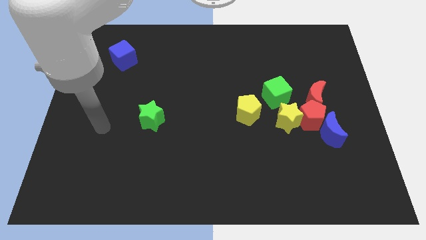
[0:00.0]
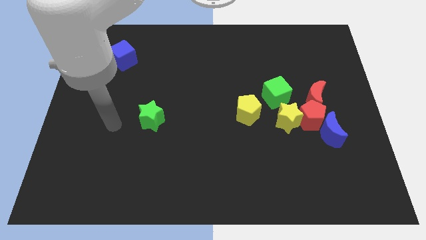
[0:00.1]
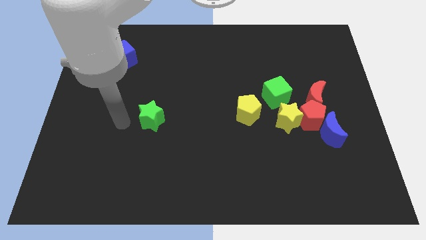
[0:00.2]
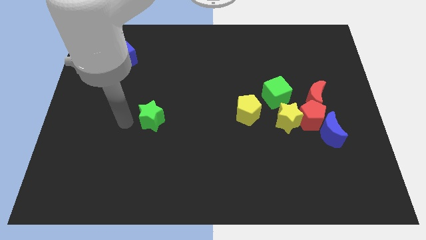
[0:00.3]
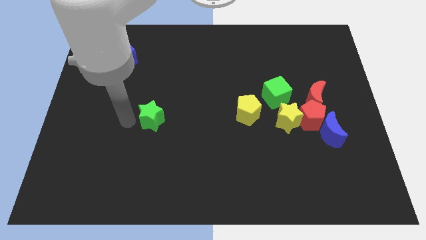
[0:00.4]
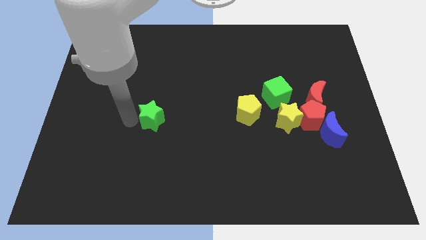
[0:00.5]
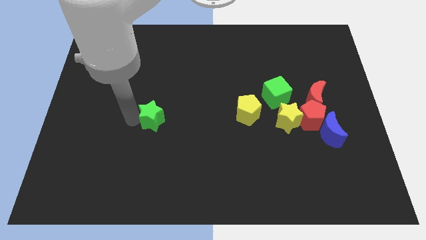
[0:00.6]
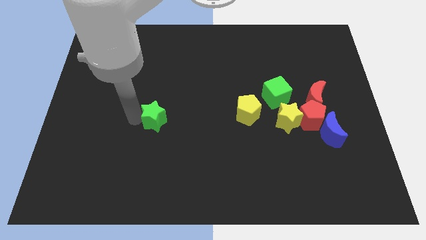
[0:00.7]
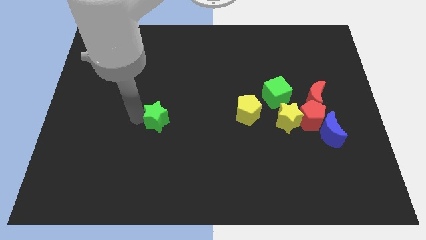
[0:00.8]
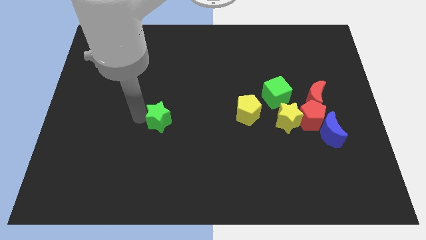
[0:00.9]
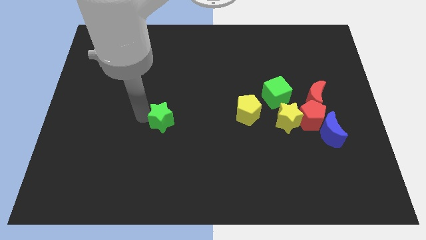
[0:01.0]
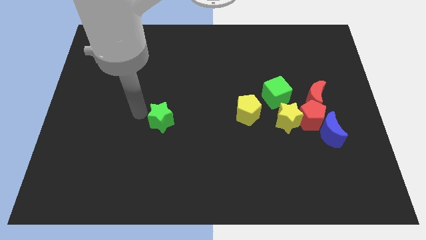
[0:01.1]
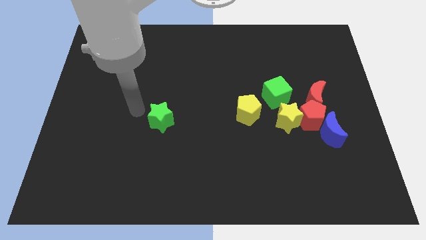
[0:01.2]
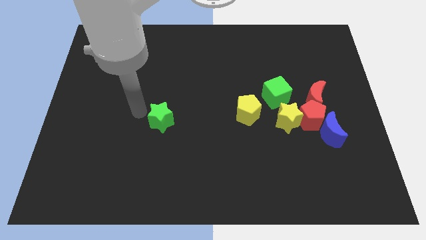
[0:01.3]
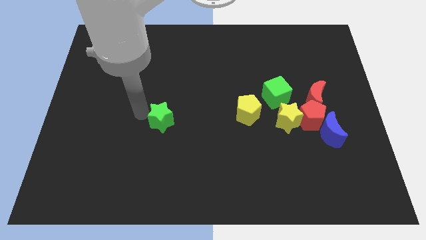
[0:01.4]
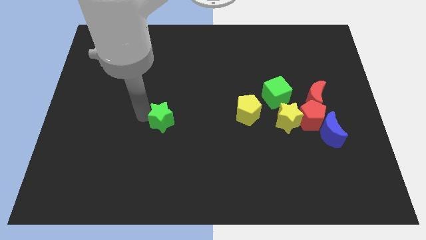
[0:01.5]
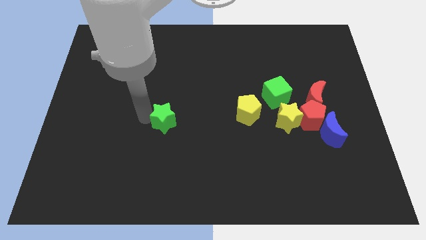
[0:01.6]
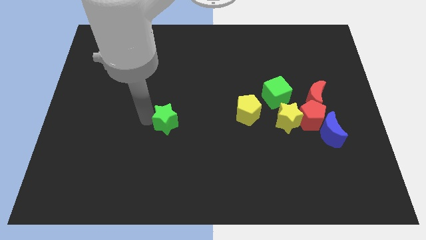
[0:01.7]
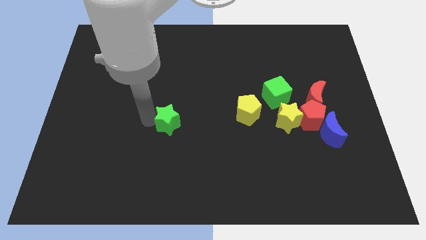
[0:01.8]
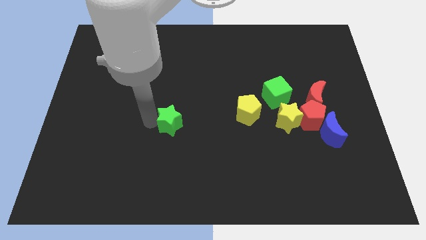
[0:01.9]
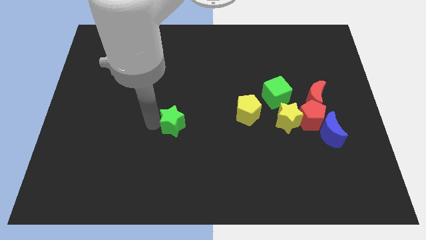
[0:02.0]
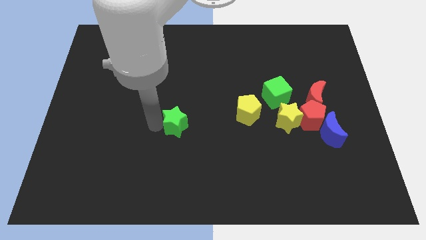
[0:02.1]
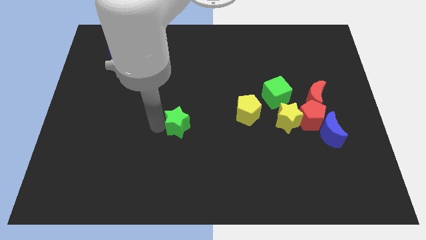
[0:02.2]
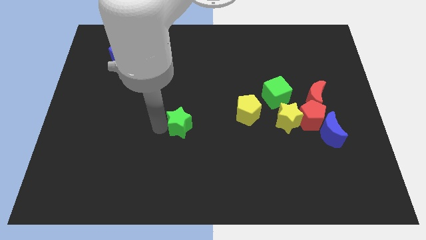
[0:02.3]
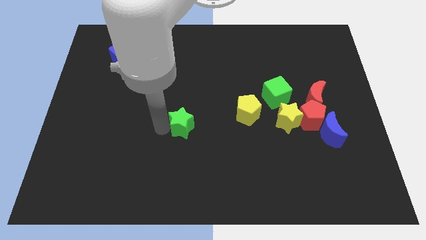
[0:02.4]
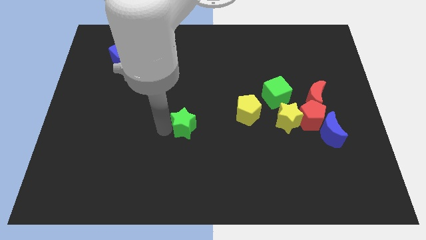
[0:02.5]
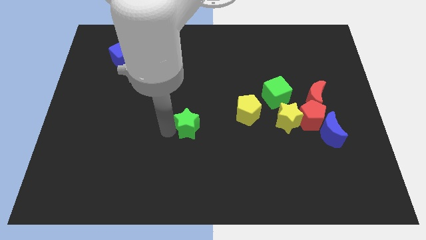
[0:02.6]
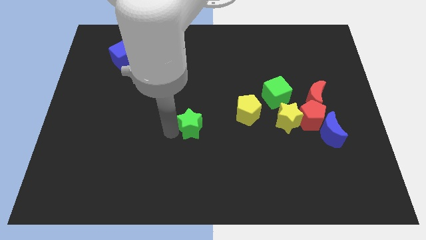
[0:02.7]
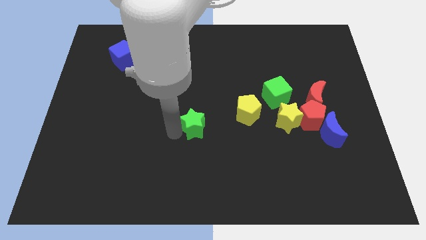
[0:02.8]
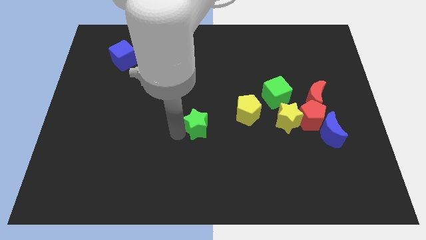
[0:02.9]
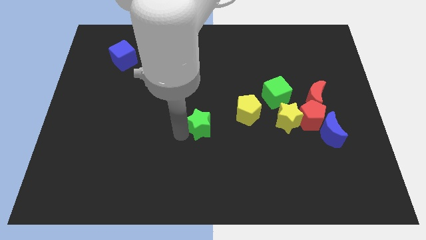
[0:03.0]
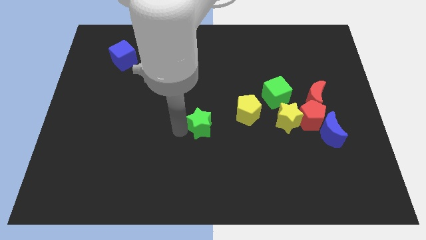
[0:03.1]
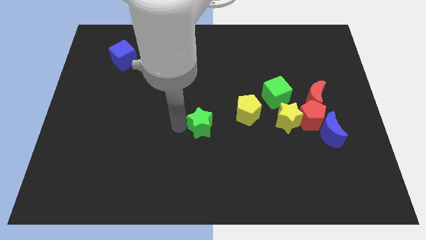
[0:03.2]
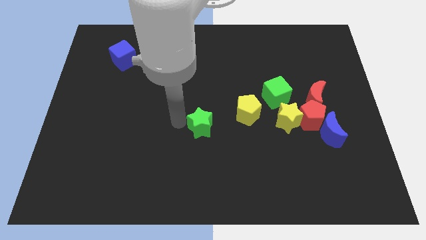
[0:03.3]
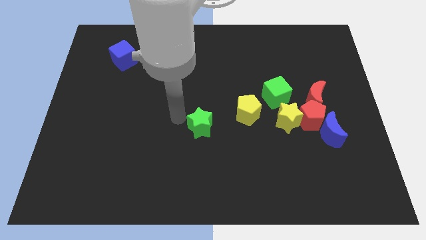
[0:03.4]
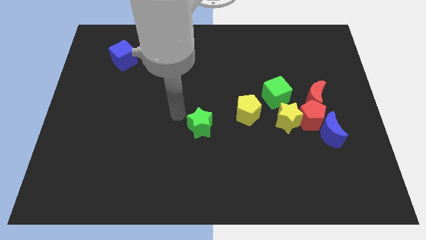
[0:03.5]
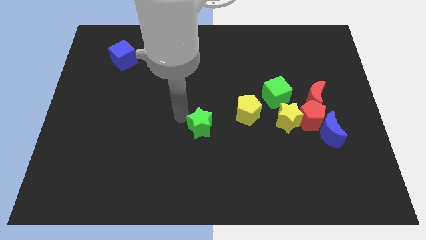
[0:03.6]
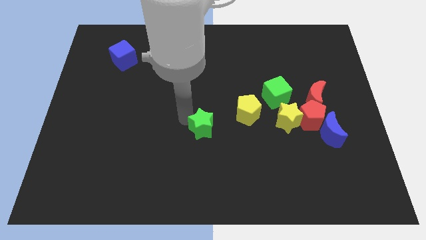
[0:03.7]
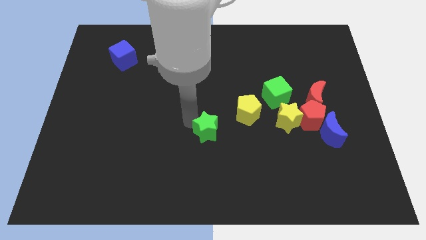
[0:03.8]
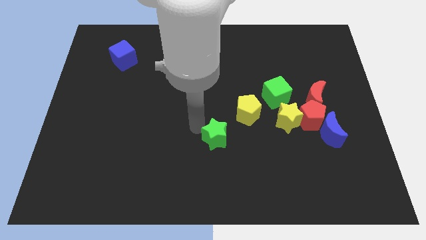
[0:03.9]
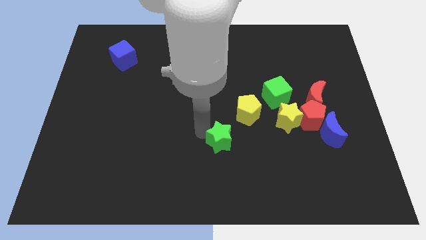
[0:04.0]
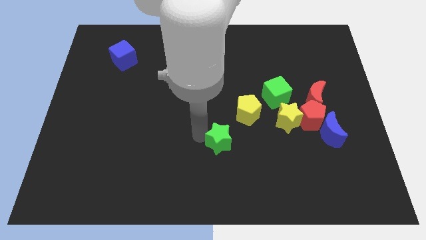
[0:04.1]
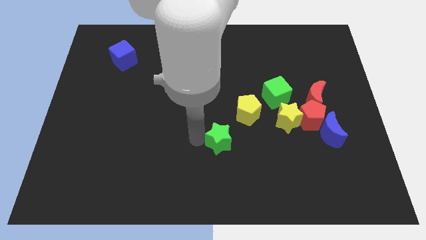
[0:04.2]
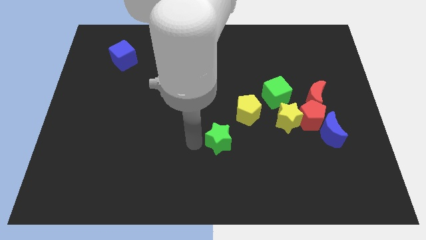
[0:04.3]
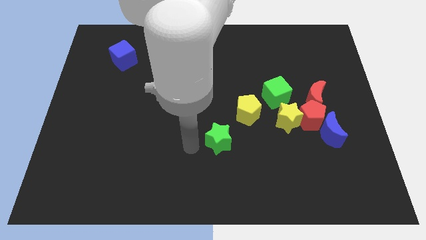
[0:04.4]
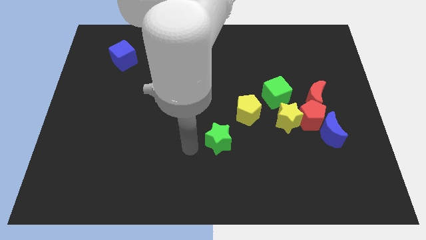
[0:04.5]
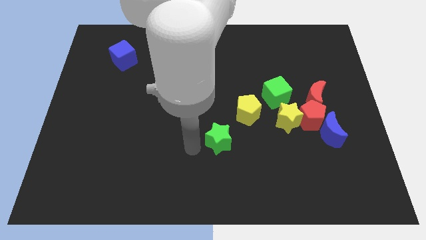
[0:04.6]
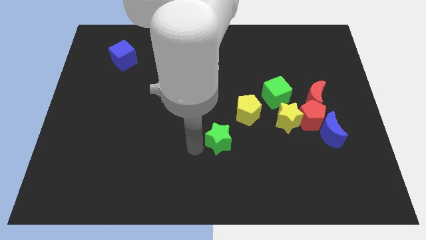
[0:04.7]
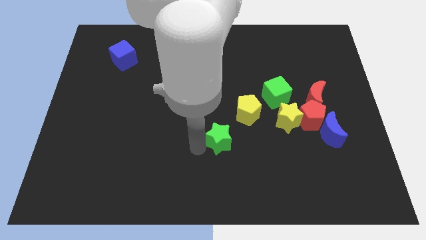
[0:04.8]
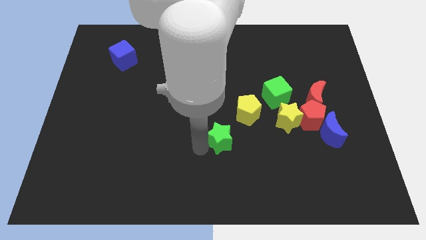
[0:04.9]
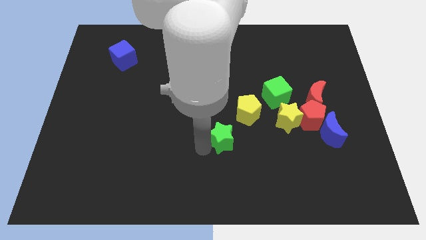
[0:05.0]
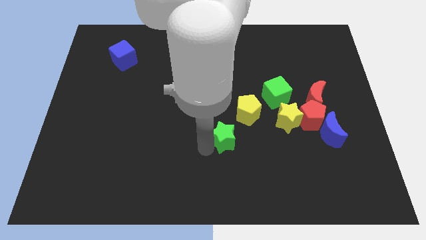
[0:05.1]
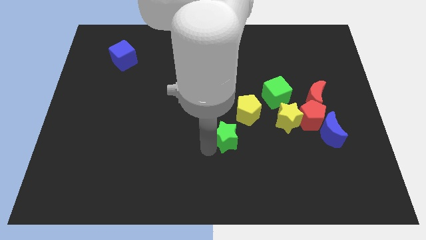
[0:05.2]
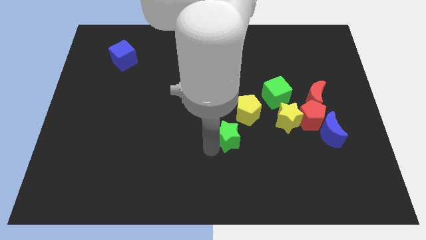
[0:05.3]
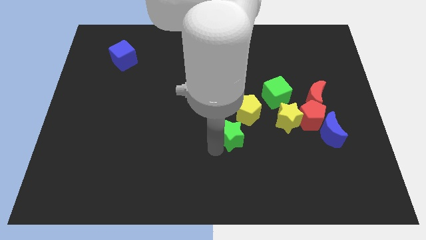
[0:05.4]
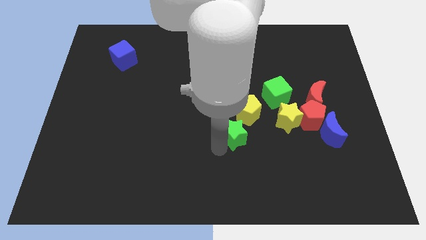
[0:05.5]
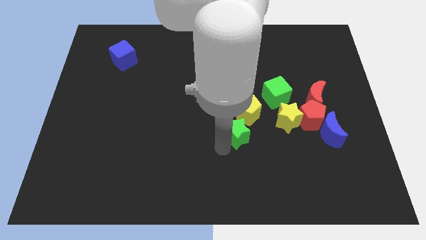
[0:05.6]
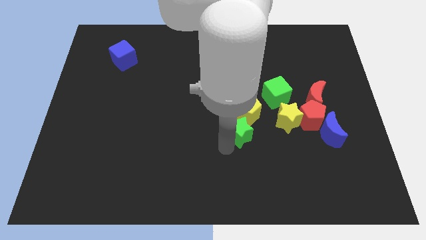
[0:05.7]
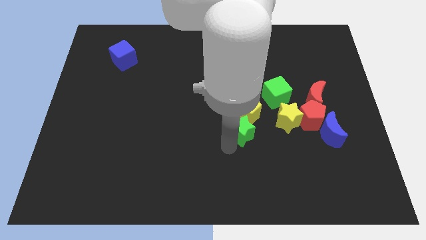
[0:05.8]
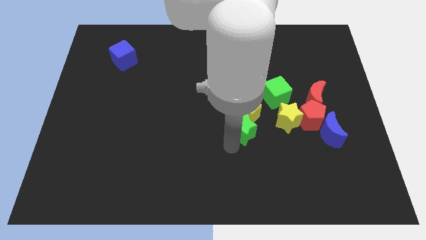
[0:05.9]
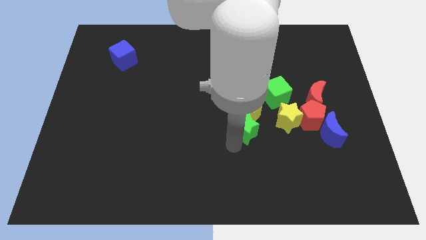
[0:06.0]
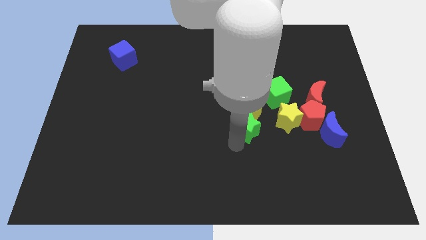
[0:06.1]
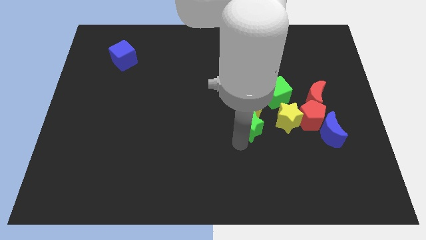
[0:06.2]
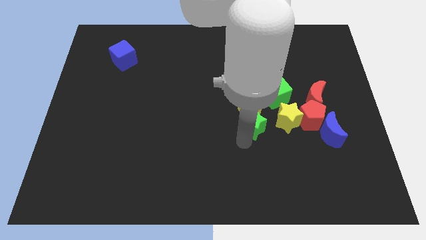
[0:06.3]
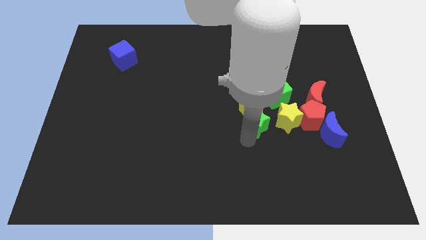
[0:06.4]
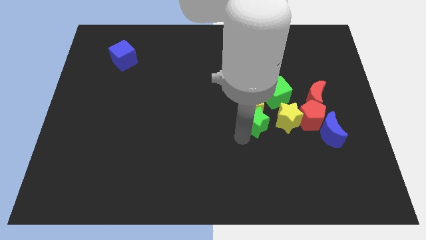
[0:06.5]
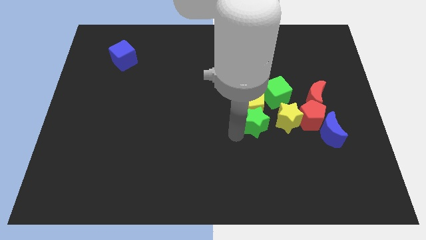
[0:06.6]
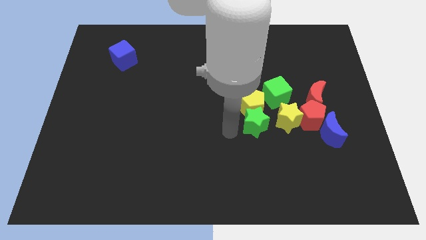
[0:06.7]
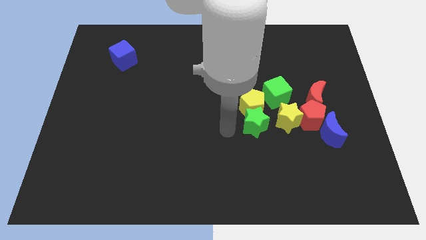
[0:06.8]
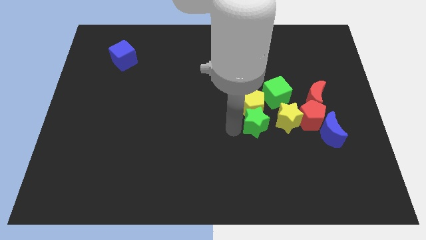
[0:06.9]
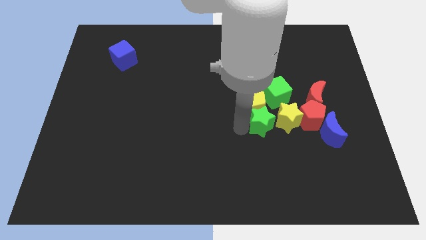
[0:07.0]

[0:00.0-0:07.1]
push the green star towards the yellow star

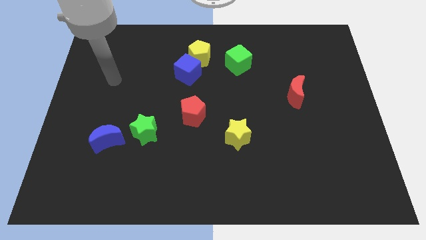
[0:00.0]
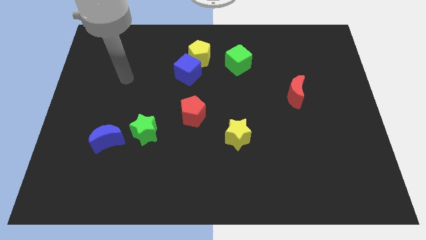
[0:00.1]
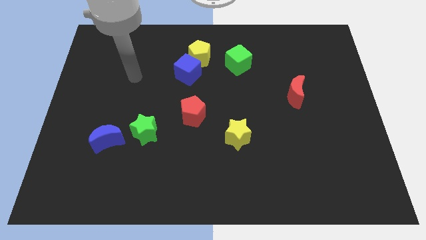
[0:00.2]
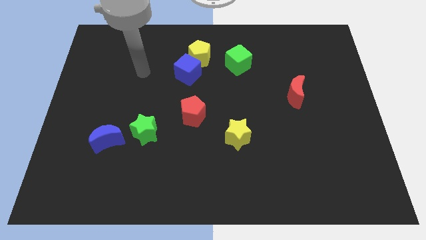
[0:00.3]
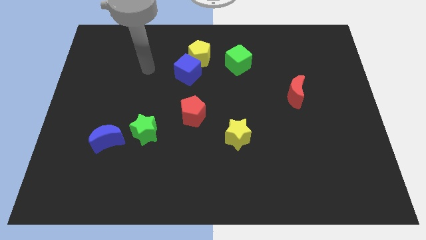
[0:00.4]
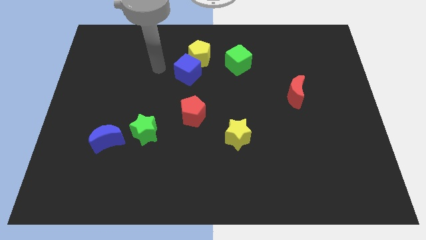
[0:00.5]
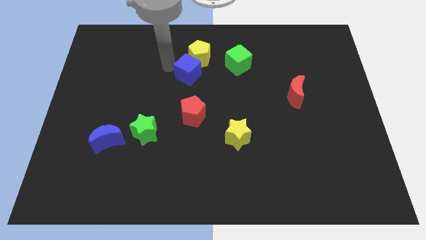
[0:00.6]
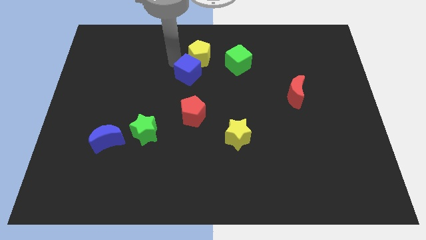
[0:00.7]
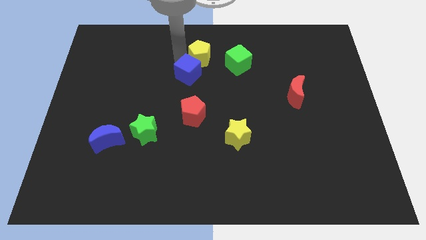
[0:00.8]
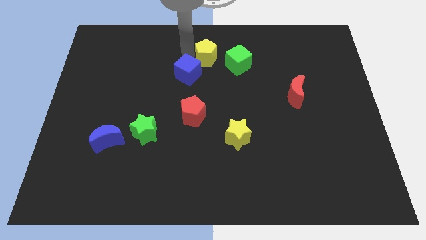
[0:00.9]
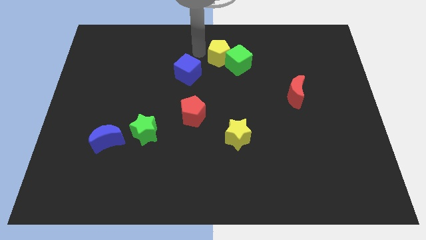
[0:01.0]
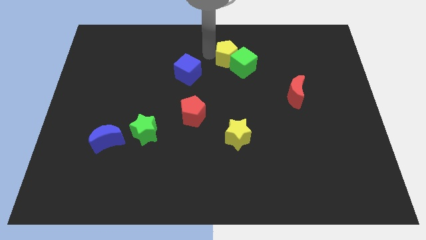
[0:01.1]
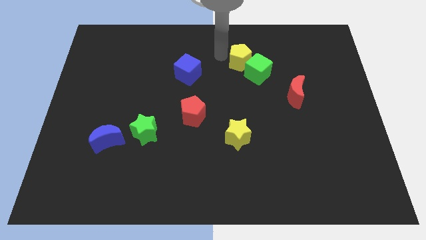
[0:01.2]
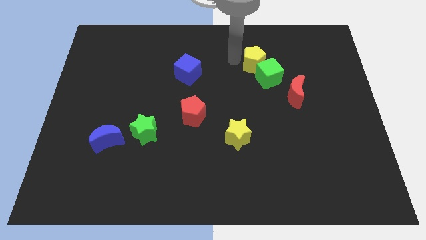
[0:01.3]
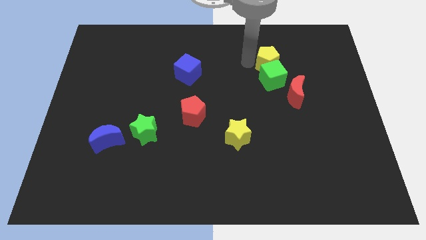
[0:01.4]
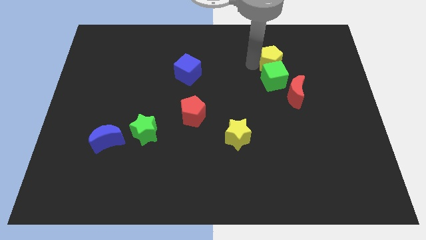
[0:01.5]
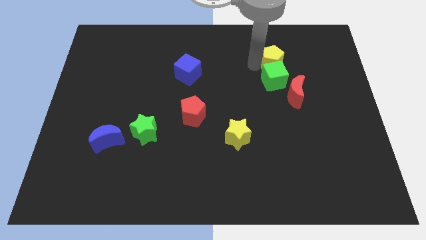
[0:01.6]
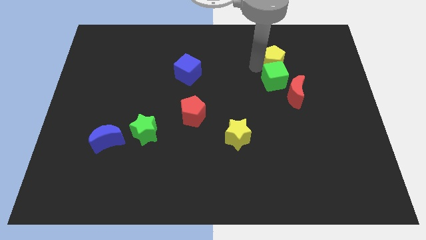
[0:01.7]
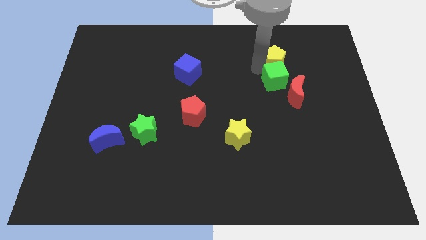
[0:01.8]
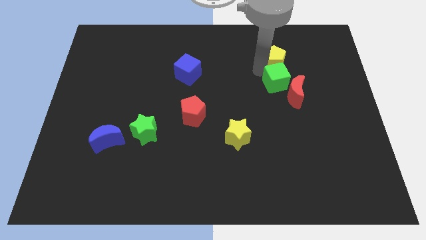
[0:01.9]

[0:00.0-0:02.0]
push the green cube close to the red moon
